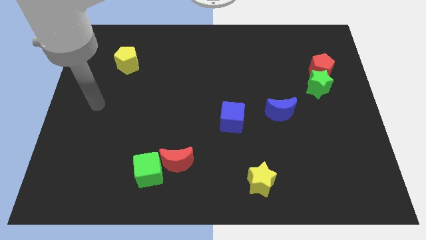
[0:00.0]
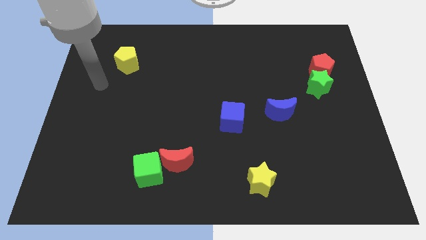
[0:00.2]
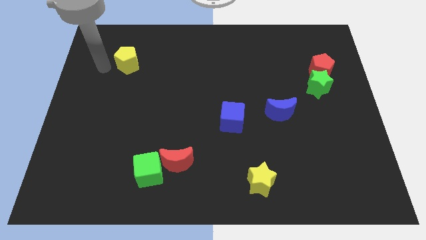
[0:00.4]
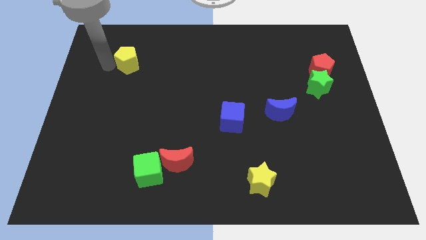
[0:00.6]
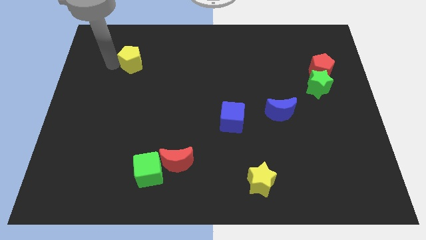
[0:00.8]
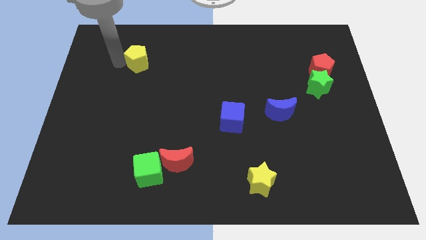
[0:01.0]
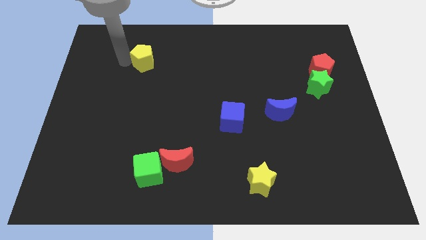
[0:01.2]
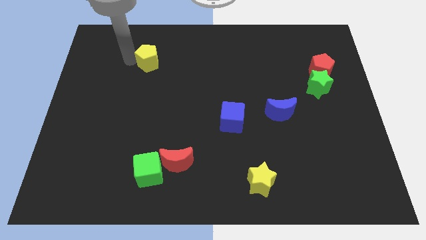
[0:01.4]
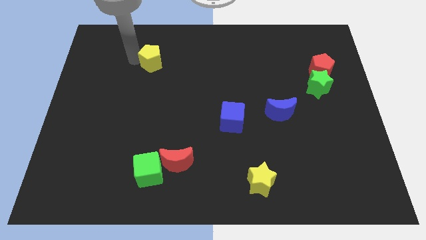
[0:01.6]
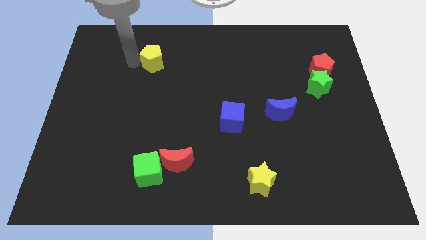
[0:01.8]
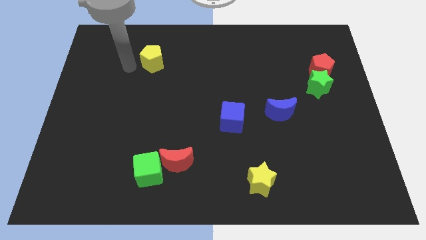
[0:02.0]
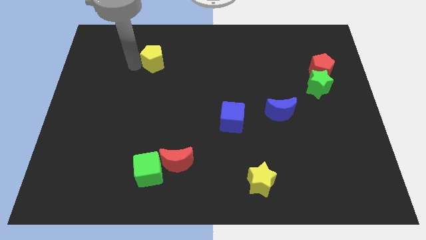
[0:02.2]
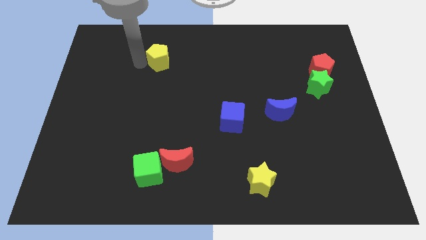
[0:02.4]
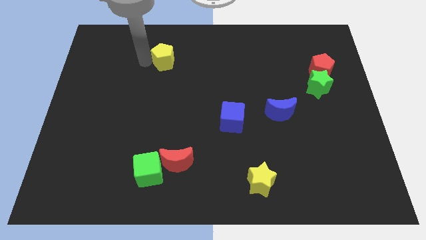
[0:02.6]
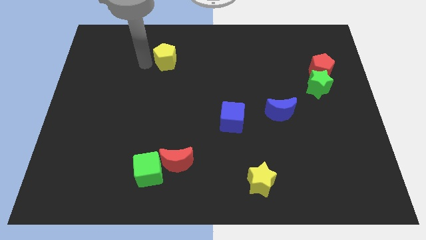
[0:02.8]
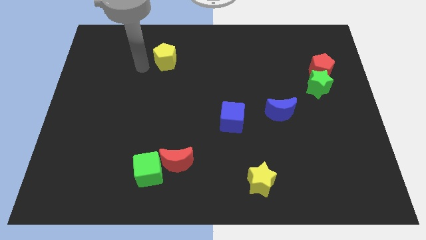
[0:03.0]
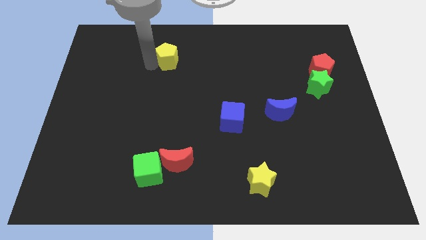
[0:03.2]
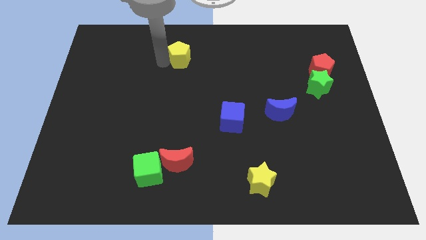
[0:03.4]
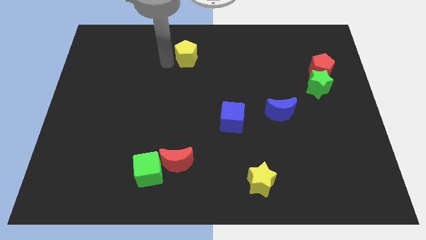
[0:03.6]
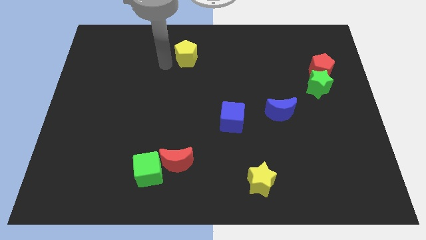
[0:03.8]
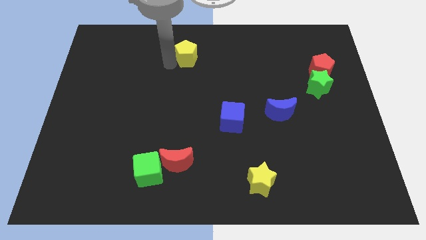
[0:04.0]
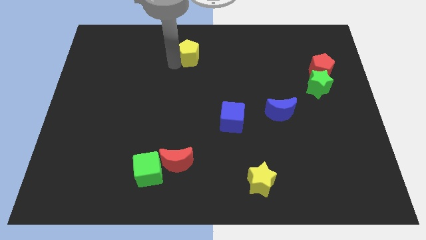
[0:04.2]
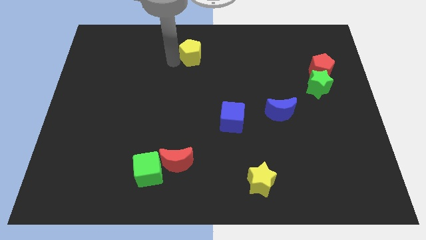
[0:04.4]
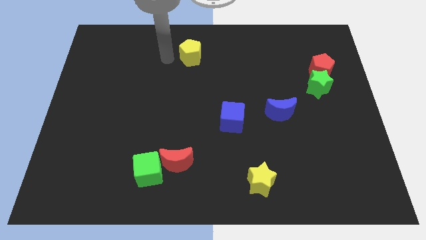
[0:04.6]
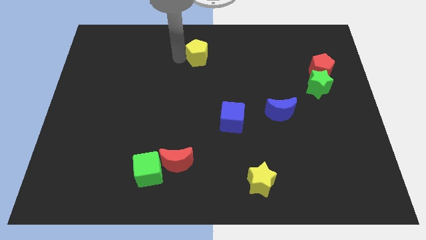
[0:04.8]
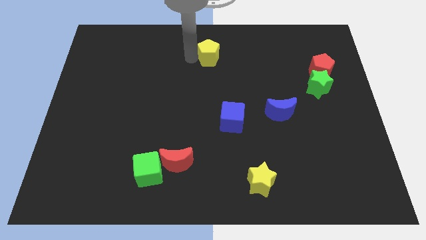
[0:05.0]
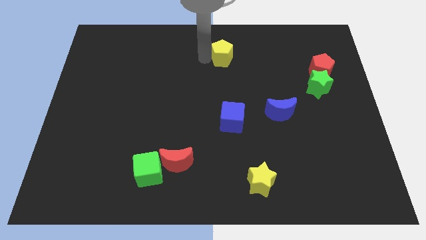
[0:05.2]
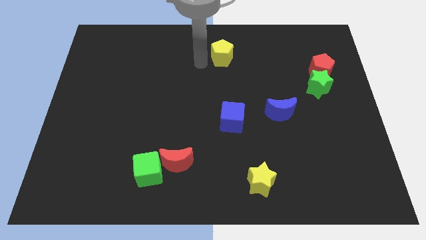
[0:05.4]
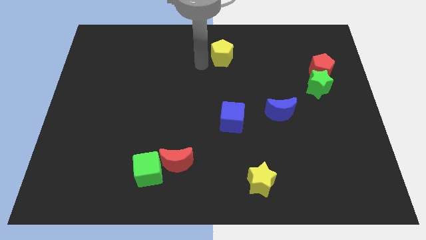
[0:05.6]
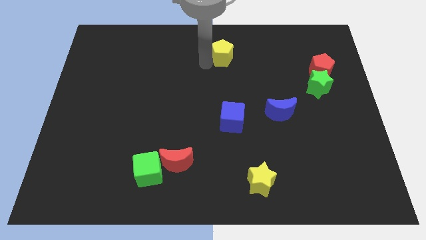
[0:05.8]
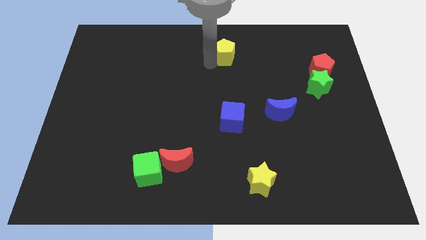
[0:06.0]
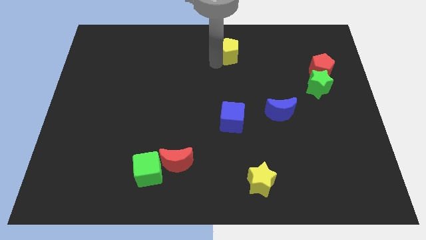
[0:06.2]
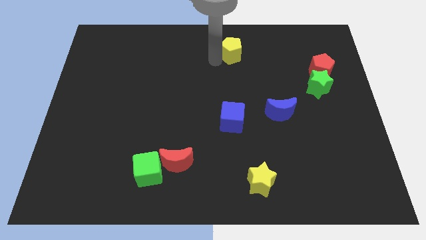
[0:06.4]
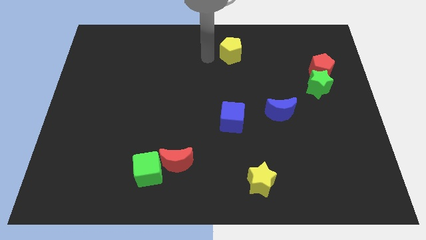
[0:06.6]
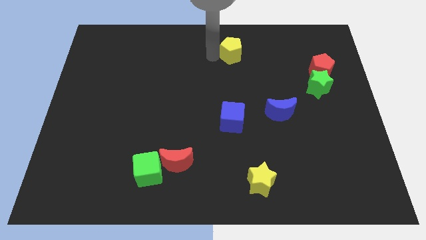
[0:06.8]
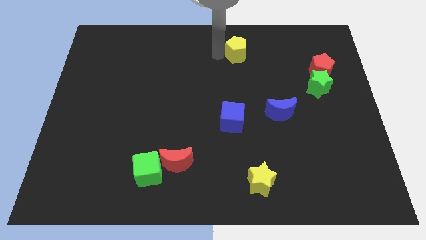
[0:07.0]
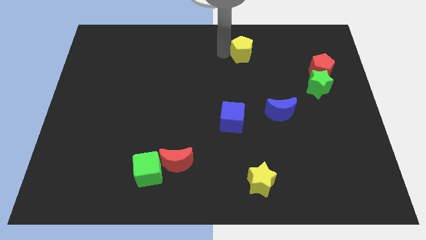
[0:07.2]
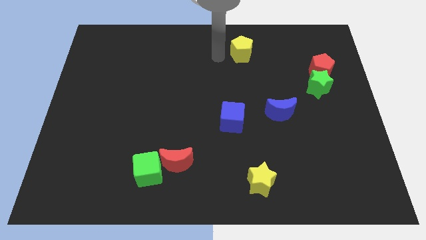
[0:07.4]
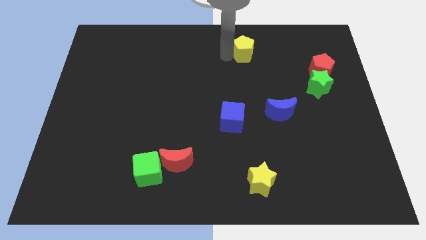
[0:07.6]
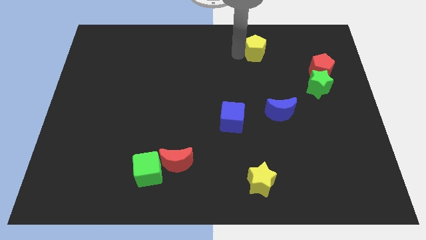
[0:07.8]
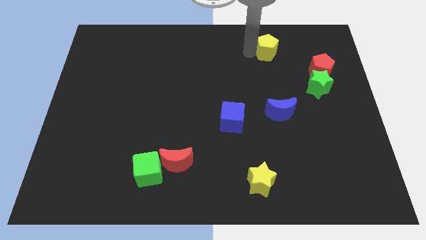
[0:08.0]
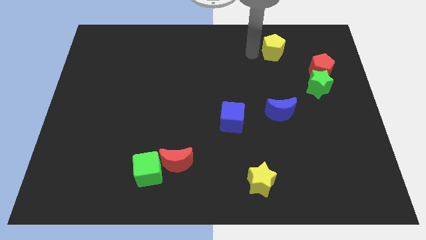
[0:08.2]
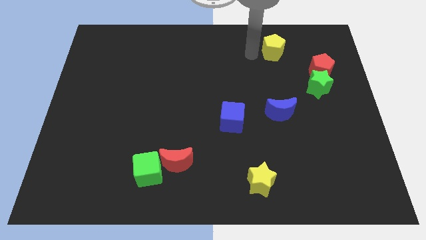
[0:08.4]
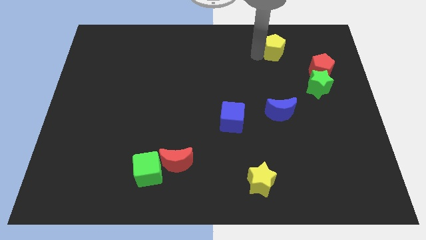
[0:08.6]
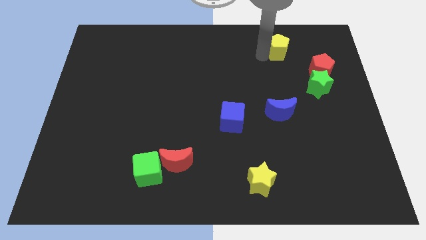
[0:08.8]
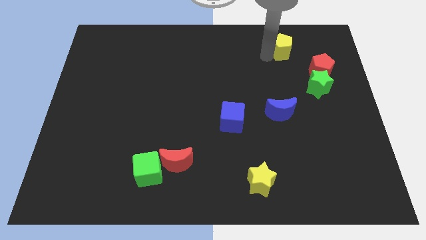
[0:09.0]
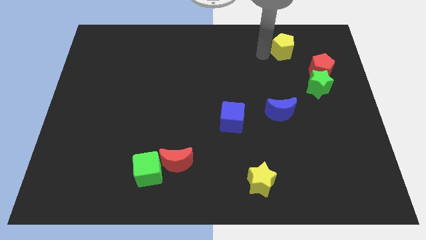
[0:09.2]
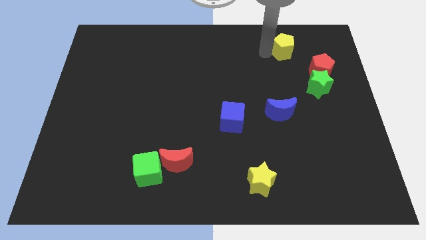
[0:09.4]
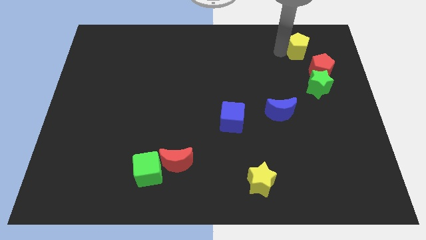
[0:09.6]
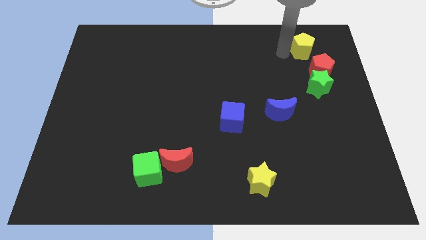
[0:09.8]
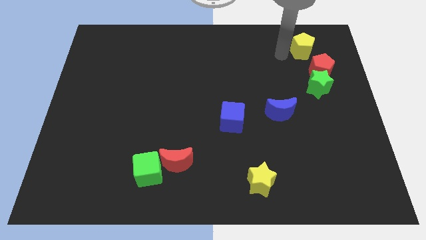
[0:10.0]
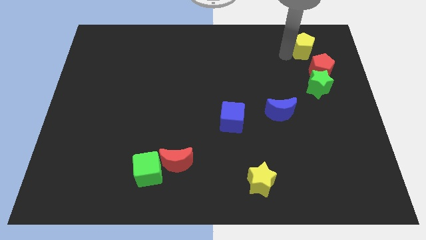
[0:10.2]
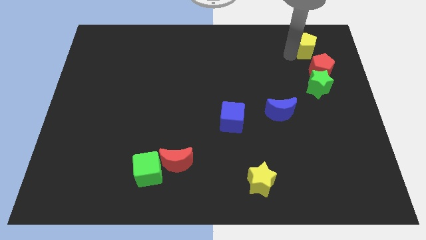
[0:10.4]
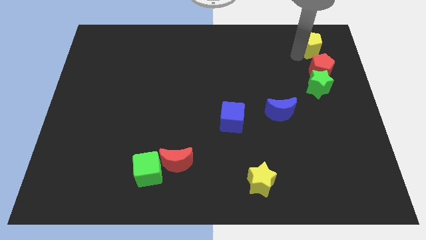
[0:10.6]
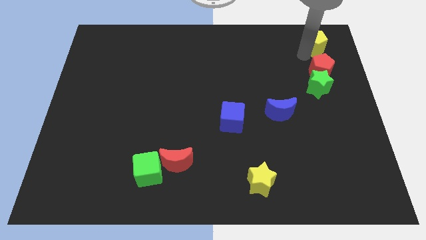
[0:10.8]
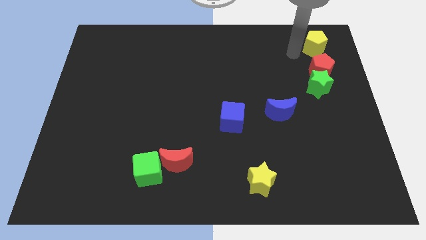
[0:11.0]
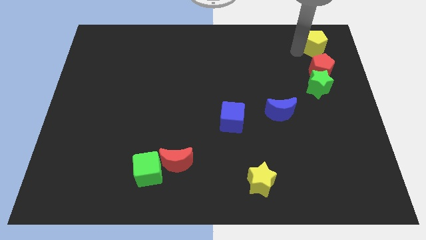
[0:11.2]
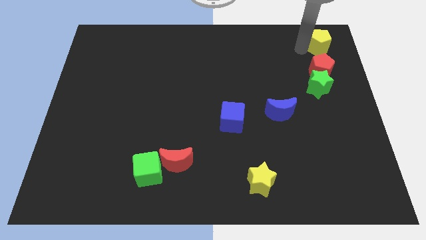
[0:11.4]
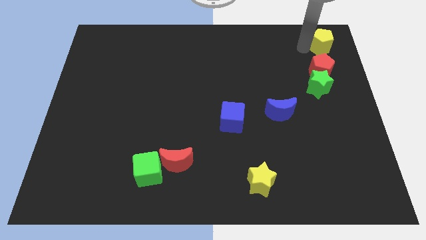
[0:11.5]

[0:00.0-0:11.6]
push the yellow pentagon to the top right

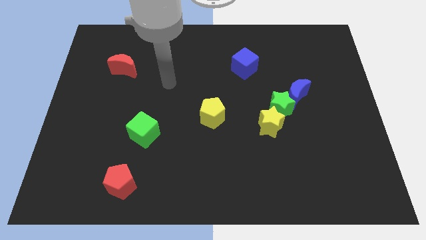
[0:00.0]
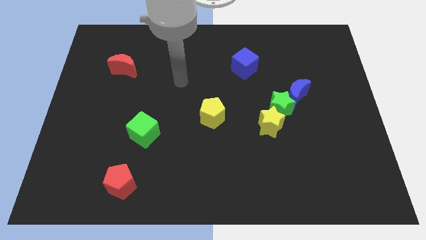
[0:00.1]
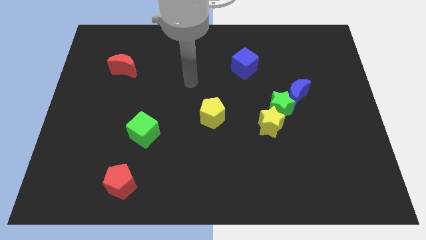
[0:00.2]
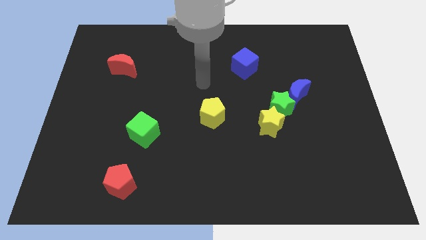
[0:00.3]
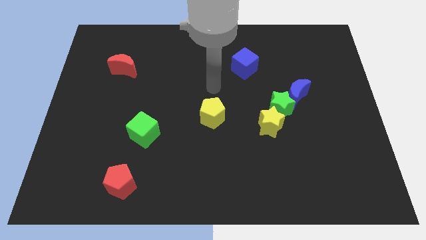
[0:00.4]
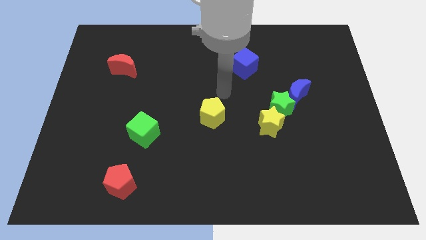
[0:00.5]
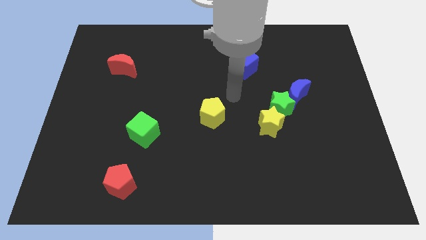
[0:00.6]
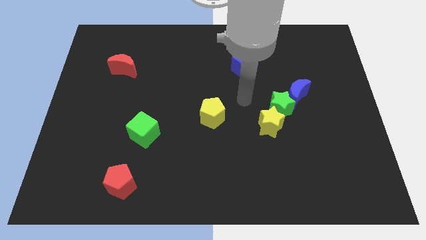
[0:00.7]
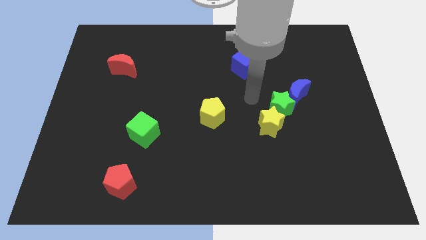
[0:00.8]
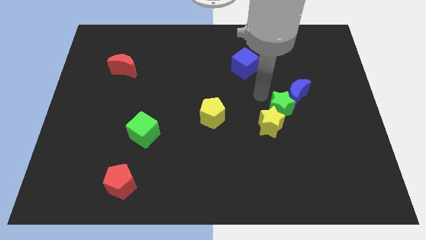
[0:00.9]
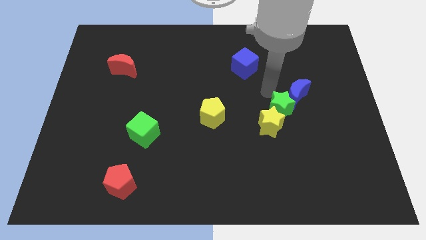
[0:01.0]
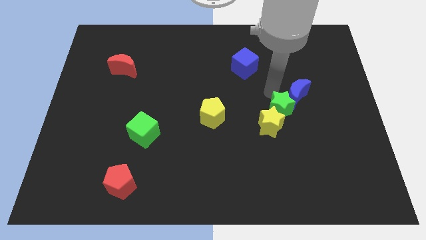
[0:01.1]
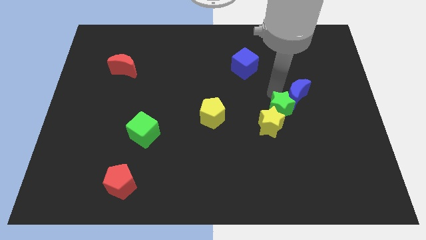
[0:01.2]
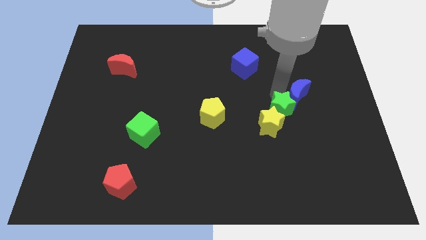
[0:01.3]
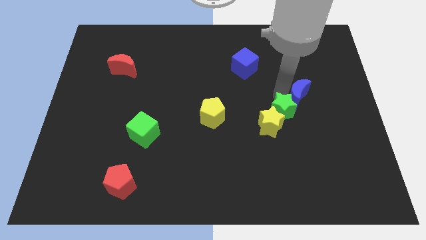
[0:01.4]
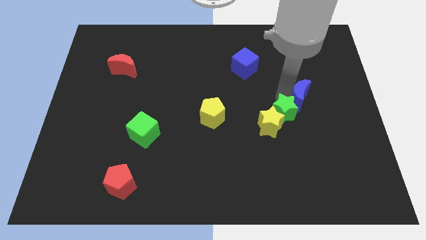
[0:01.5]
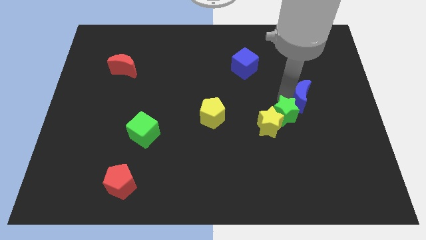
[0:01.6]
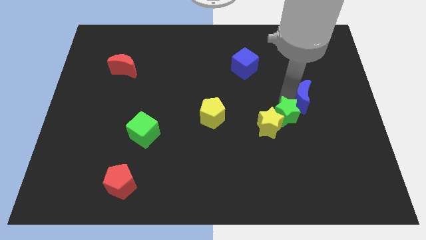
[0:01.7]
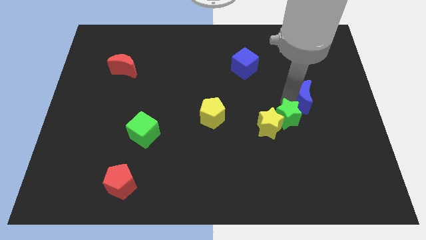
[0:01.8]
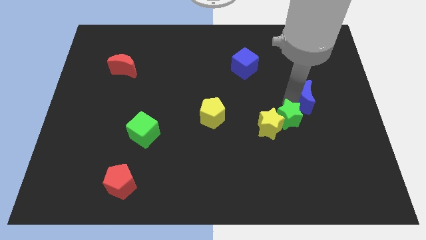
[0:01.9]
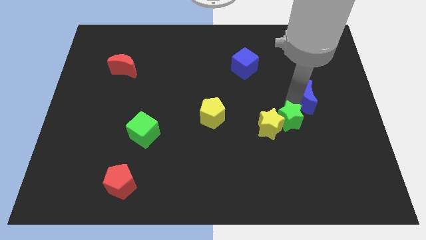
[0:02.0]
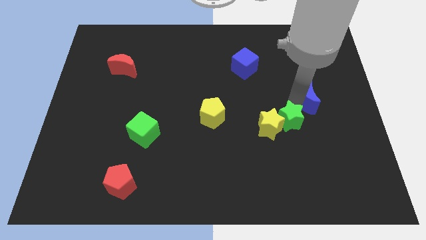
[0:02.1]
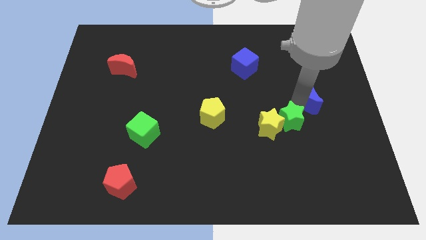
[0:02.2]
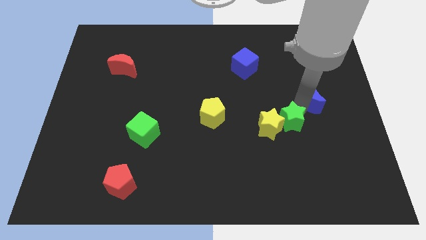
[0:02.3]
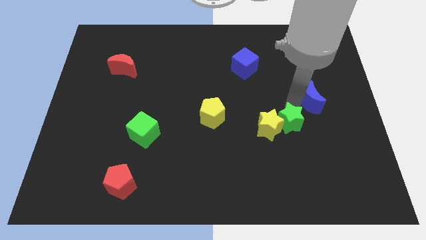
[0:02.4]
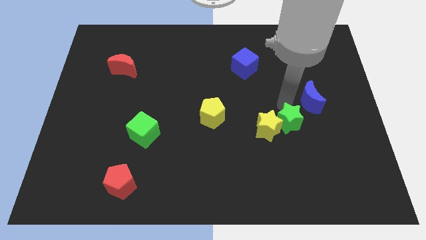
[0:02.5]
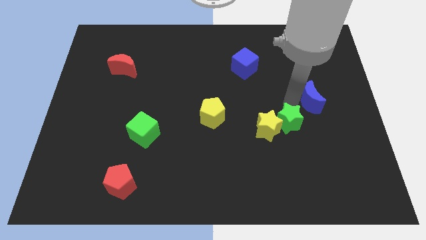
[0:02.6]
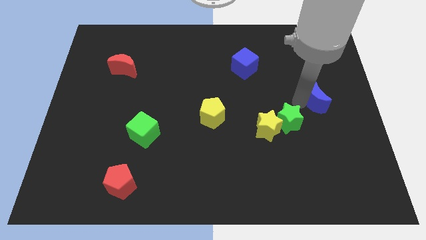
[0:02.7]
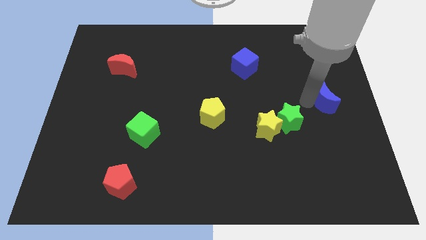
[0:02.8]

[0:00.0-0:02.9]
push the blue moon to the right side
